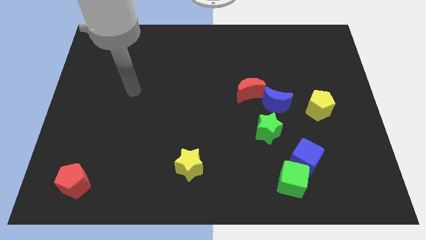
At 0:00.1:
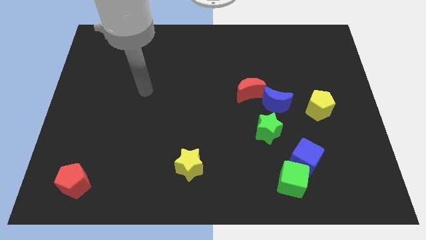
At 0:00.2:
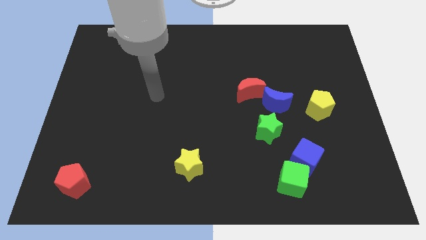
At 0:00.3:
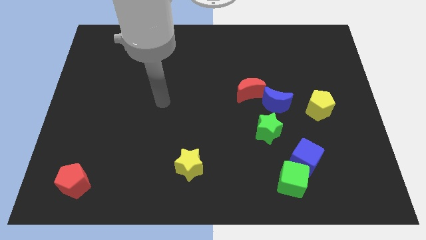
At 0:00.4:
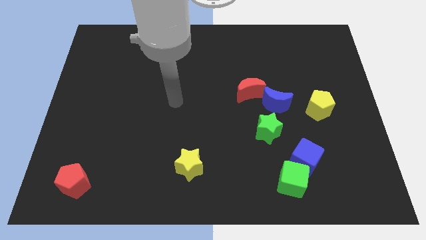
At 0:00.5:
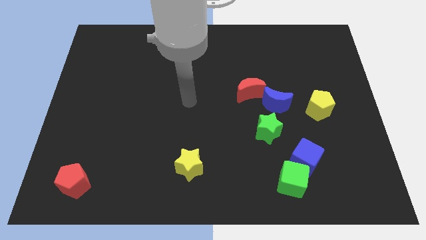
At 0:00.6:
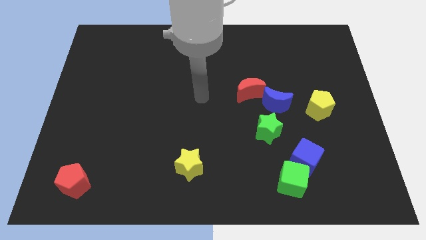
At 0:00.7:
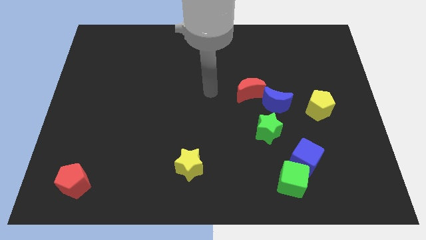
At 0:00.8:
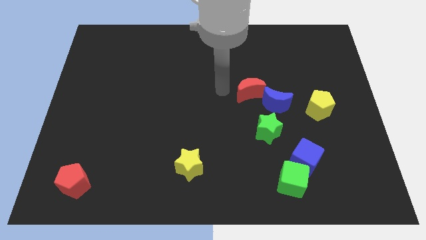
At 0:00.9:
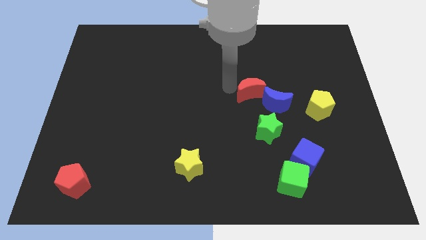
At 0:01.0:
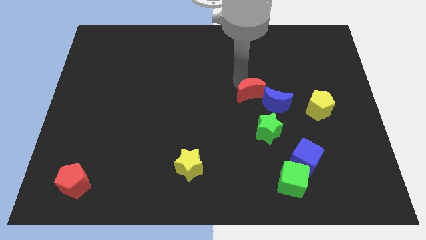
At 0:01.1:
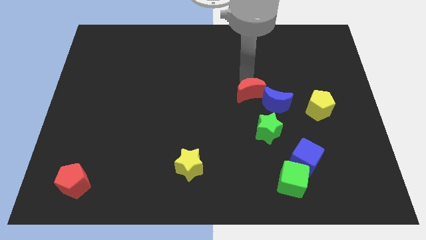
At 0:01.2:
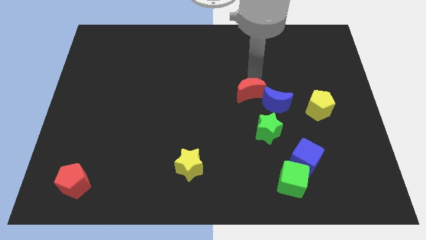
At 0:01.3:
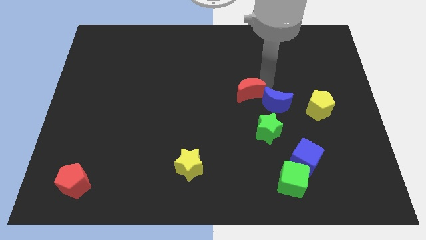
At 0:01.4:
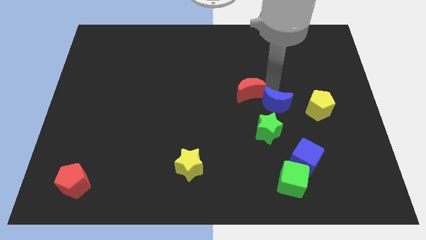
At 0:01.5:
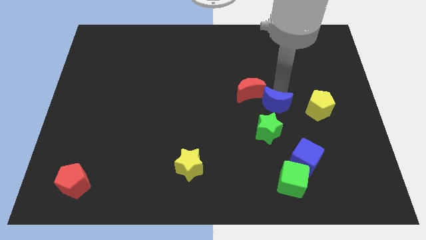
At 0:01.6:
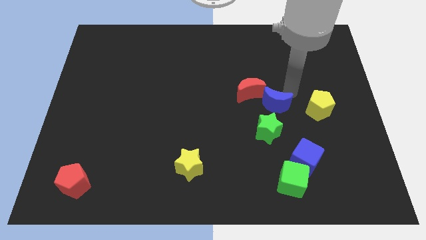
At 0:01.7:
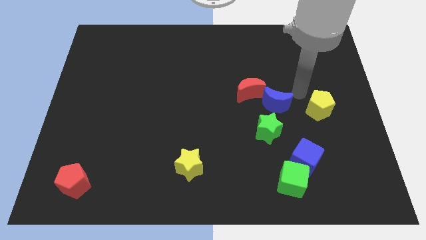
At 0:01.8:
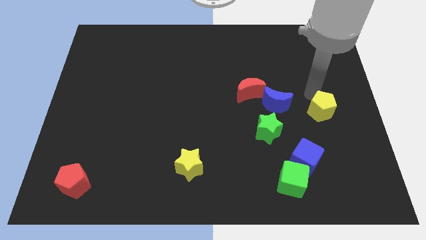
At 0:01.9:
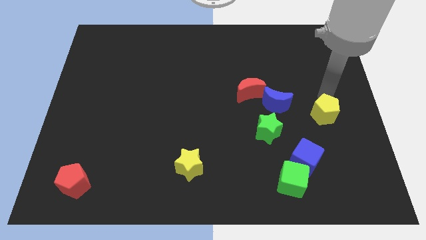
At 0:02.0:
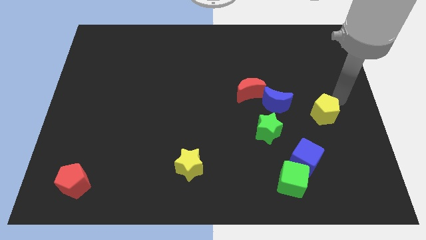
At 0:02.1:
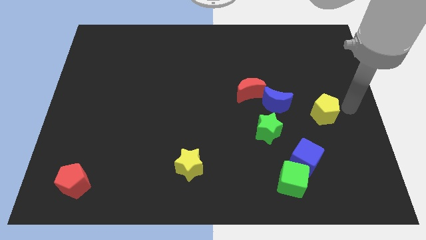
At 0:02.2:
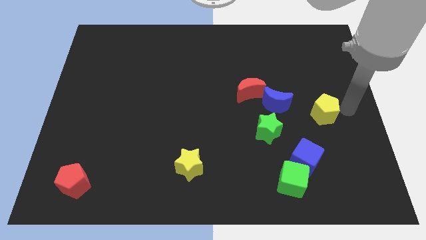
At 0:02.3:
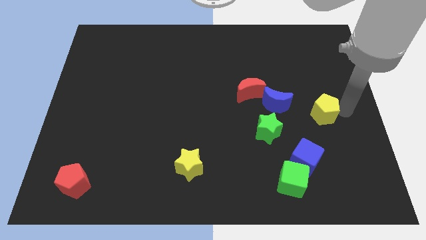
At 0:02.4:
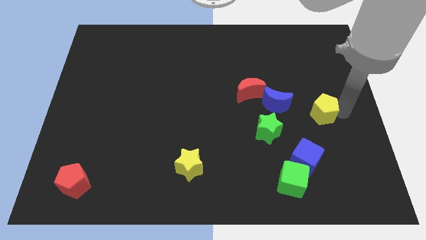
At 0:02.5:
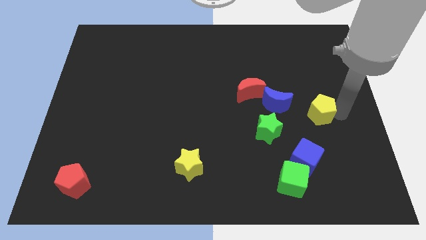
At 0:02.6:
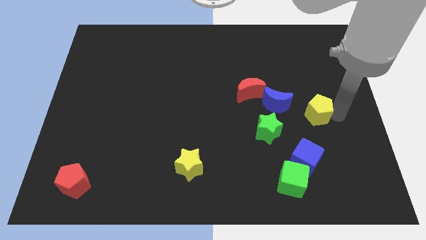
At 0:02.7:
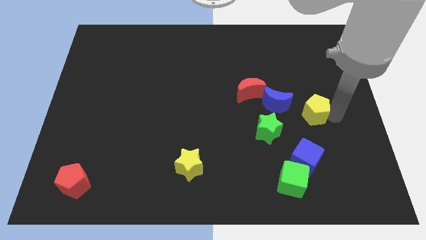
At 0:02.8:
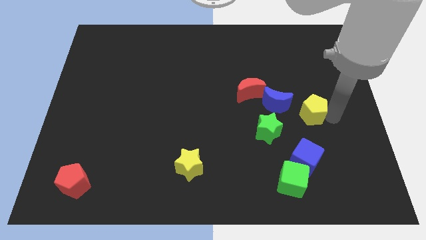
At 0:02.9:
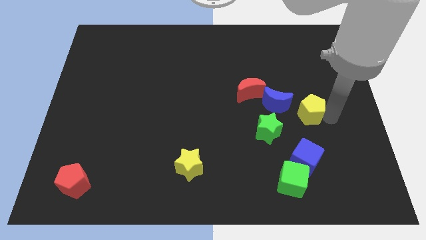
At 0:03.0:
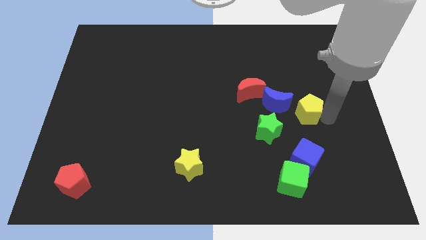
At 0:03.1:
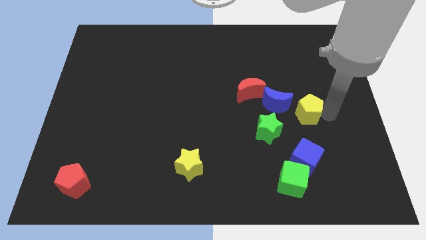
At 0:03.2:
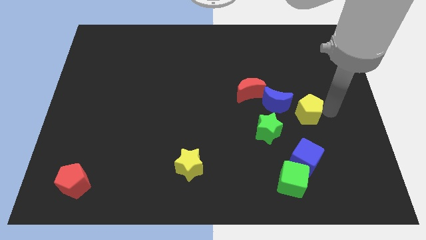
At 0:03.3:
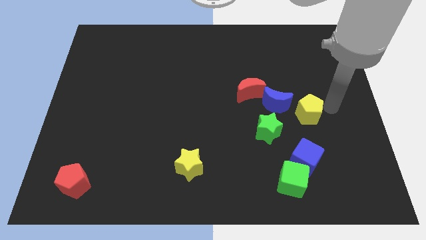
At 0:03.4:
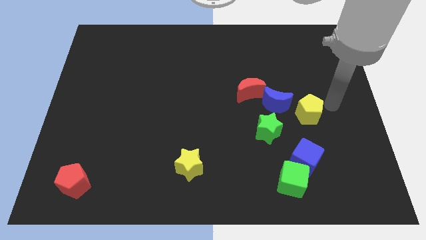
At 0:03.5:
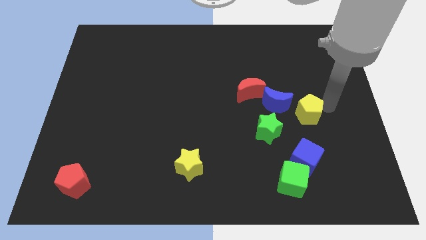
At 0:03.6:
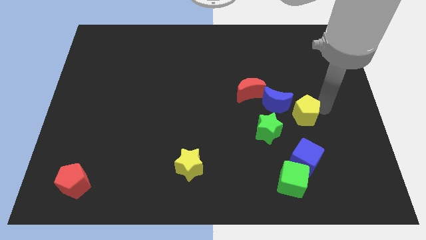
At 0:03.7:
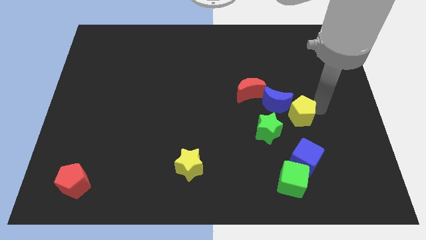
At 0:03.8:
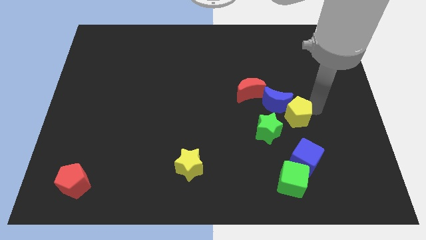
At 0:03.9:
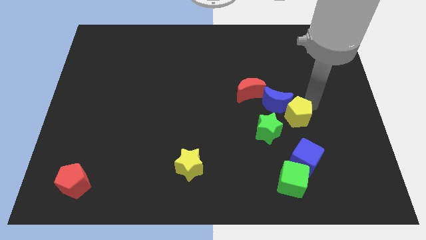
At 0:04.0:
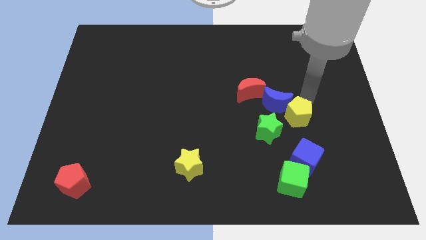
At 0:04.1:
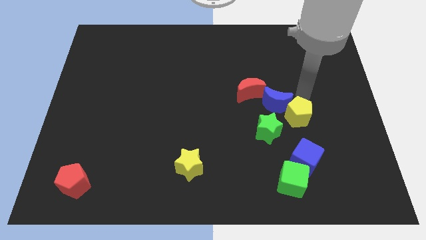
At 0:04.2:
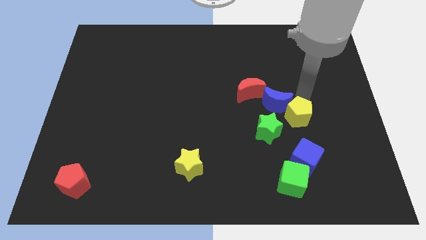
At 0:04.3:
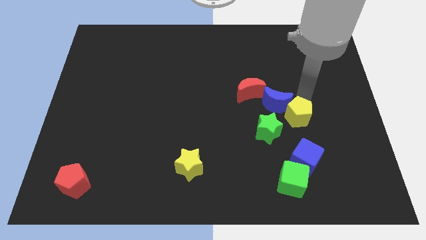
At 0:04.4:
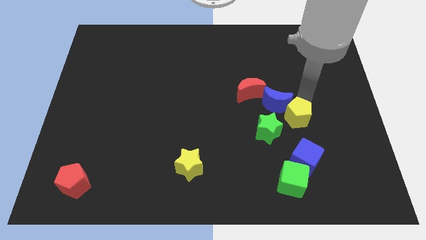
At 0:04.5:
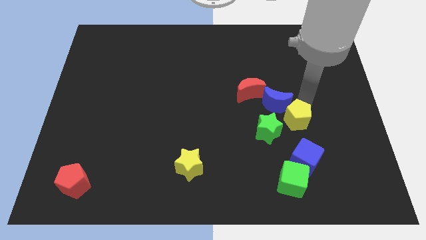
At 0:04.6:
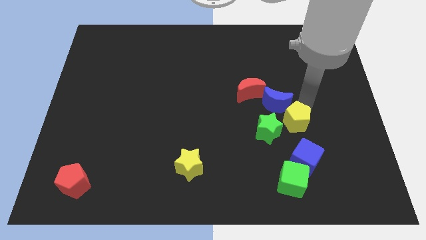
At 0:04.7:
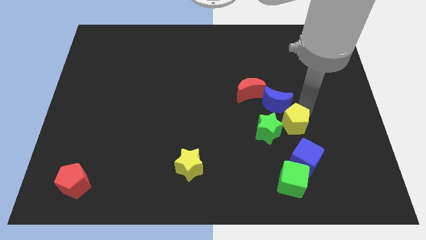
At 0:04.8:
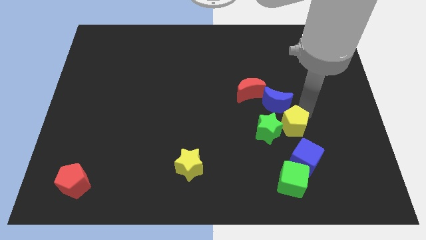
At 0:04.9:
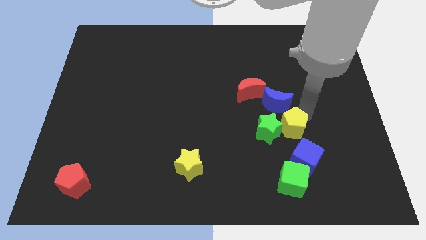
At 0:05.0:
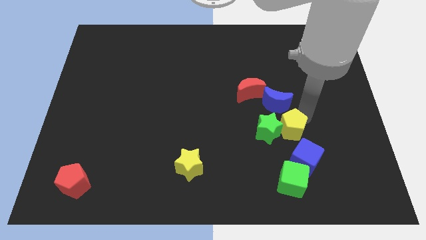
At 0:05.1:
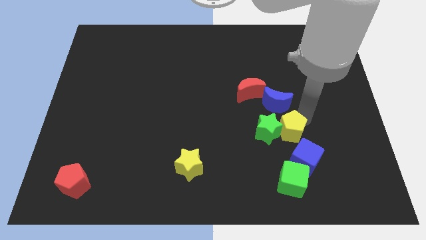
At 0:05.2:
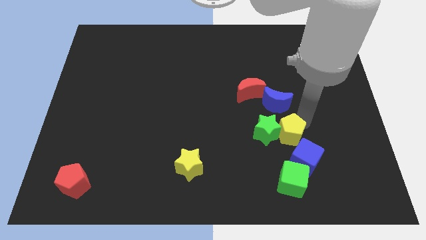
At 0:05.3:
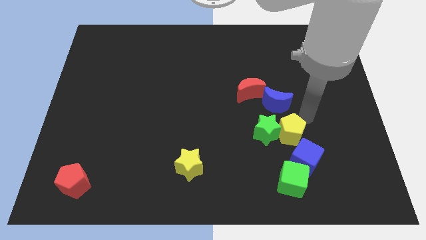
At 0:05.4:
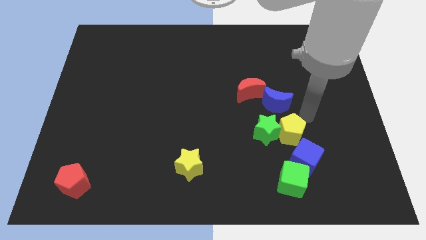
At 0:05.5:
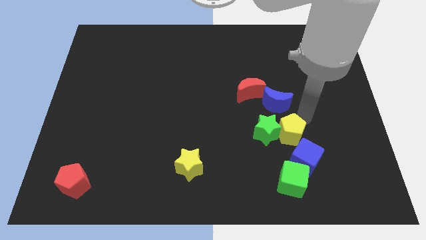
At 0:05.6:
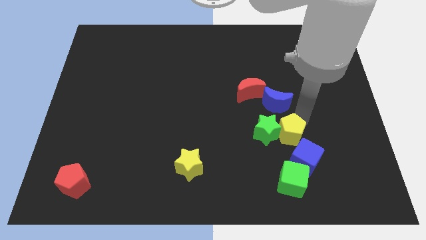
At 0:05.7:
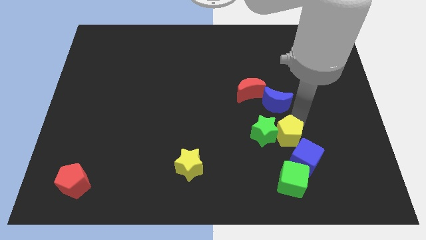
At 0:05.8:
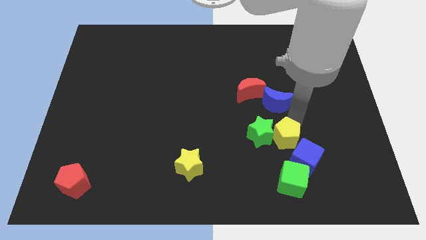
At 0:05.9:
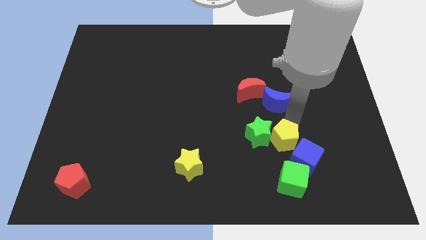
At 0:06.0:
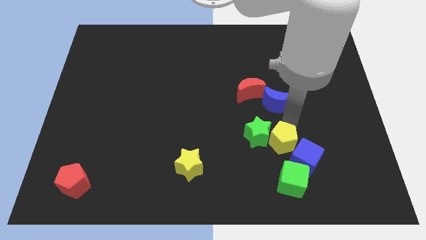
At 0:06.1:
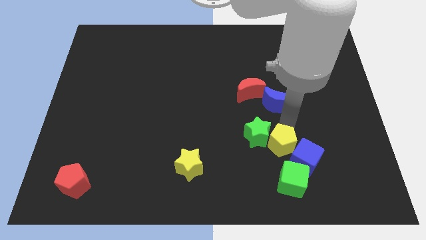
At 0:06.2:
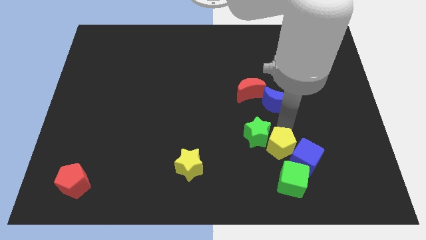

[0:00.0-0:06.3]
slide the yellow pentagon to the top left of the green cube

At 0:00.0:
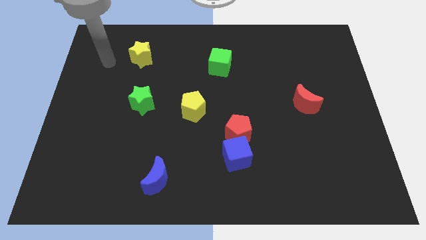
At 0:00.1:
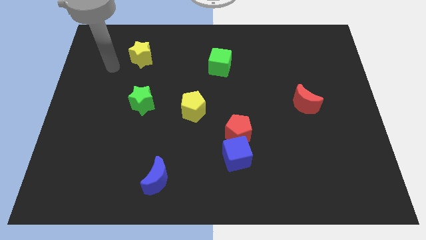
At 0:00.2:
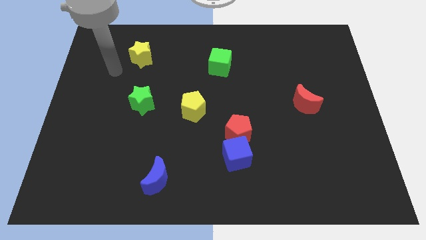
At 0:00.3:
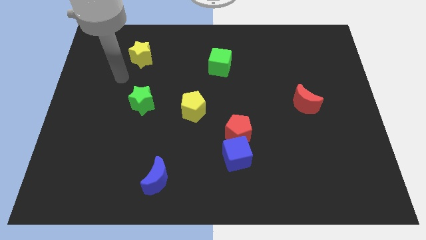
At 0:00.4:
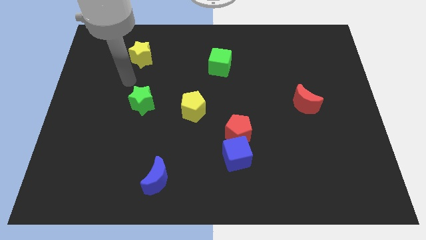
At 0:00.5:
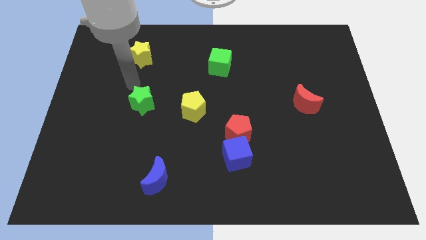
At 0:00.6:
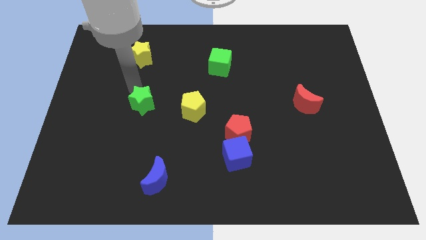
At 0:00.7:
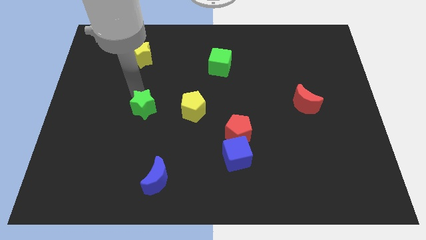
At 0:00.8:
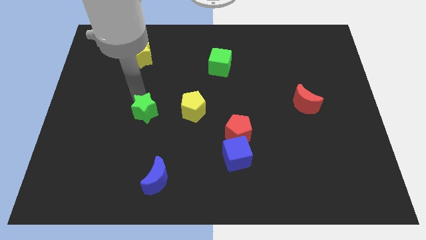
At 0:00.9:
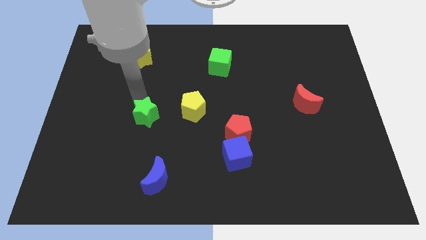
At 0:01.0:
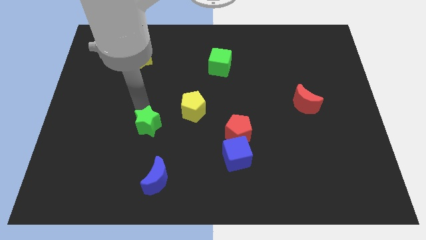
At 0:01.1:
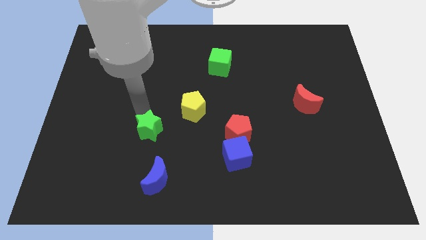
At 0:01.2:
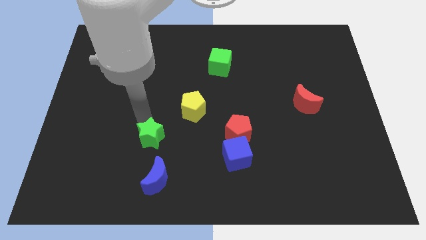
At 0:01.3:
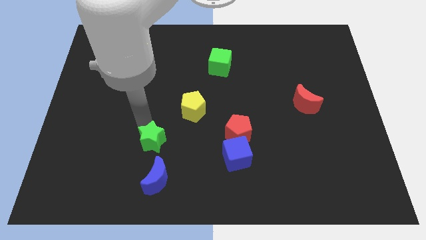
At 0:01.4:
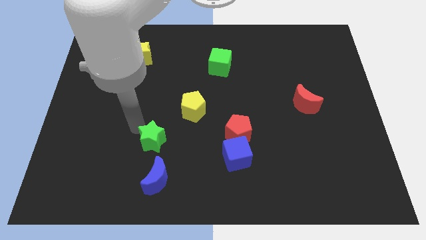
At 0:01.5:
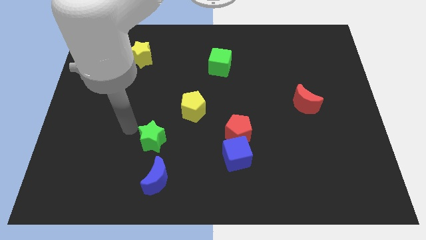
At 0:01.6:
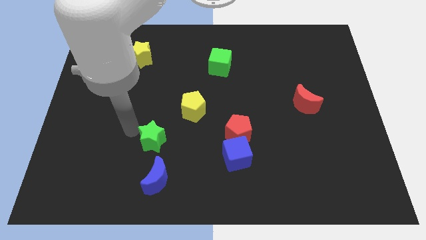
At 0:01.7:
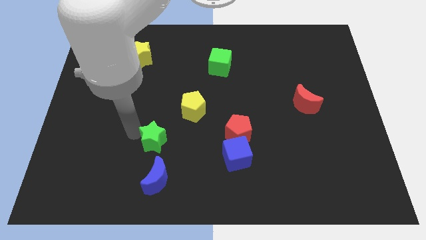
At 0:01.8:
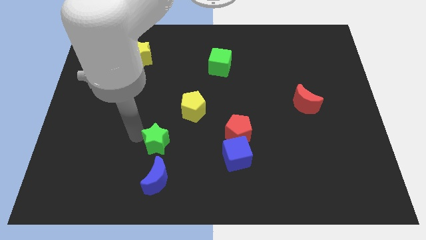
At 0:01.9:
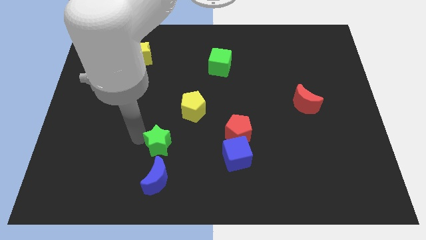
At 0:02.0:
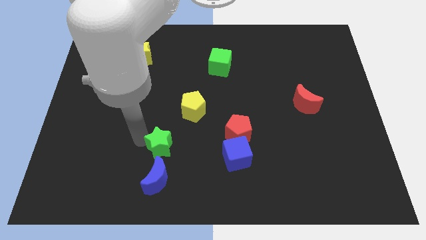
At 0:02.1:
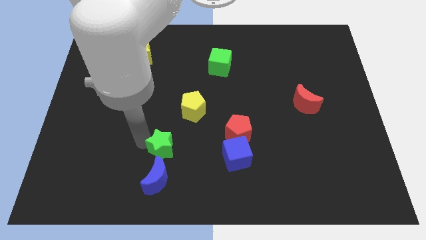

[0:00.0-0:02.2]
push the green star diagonally up and to the right of the blue moon
